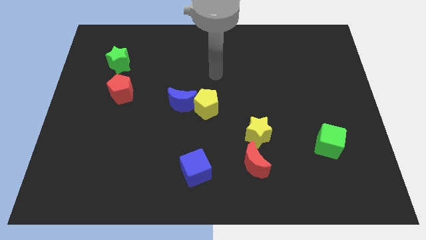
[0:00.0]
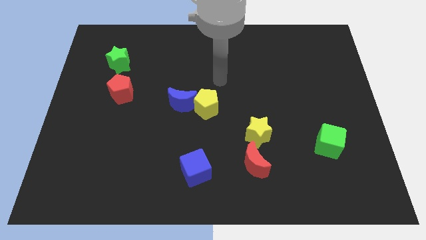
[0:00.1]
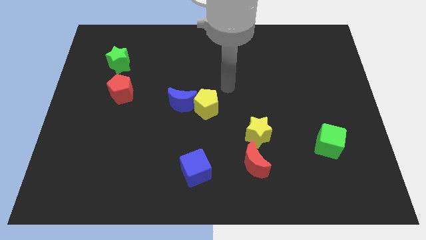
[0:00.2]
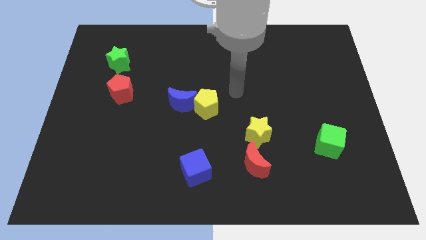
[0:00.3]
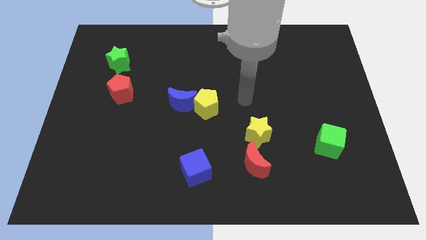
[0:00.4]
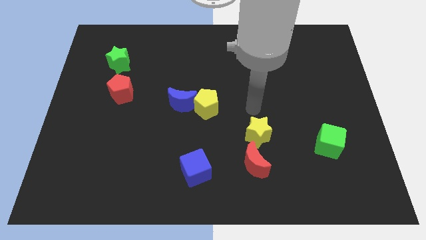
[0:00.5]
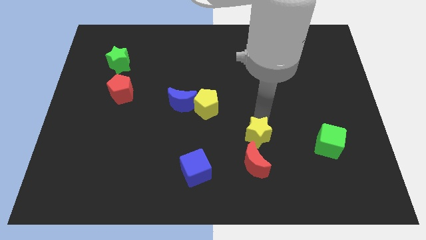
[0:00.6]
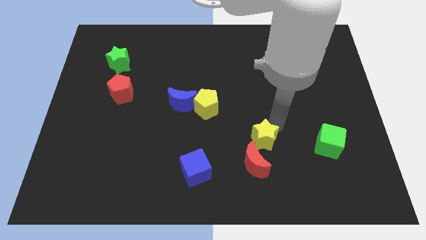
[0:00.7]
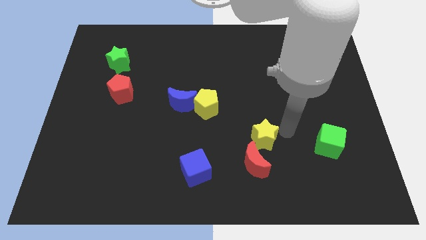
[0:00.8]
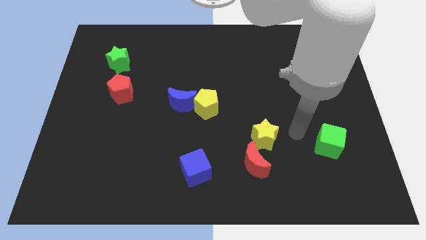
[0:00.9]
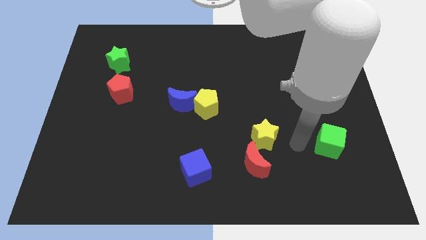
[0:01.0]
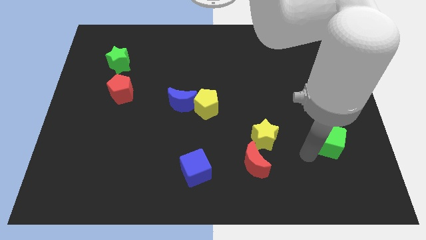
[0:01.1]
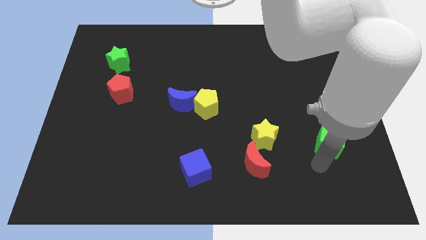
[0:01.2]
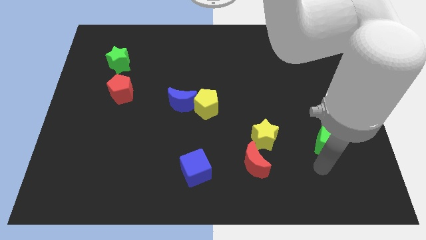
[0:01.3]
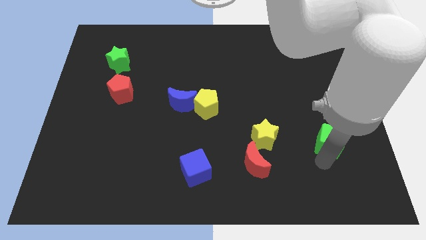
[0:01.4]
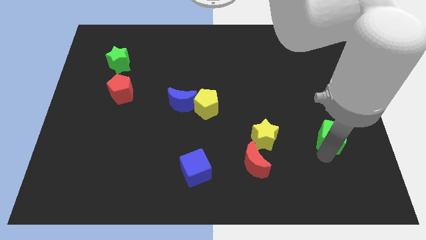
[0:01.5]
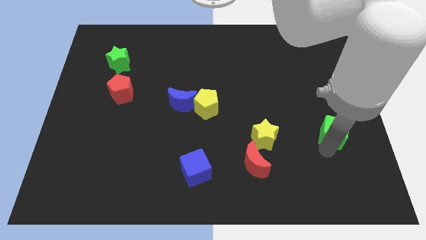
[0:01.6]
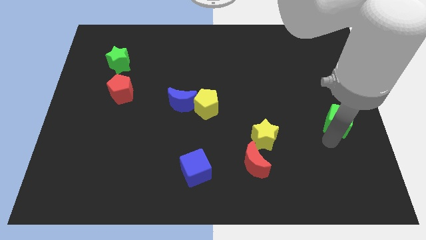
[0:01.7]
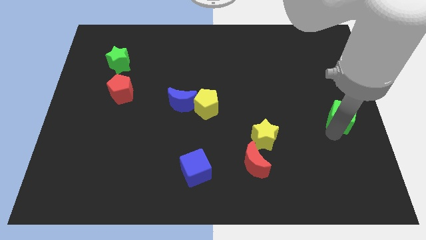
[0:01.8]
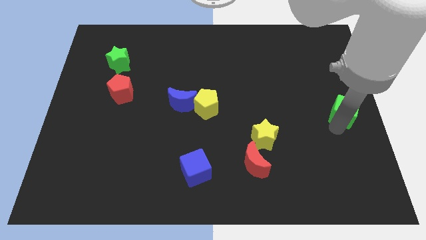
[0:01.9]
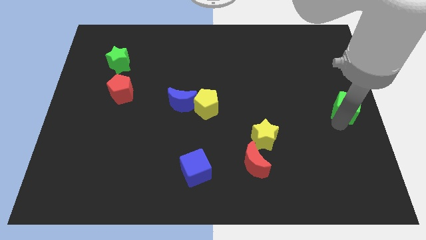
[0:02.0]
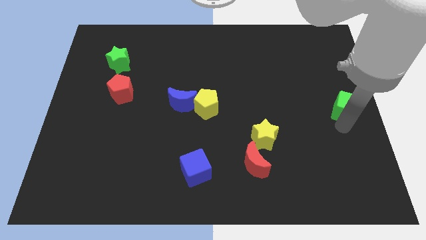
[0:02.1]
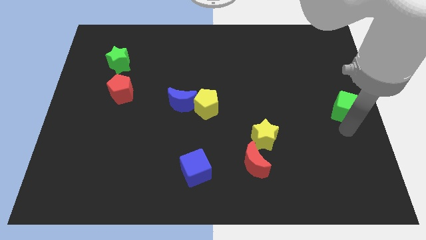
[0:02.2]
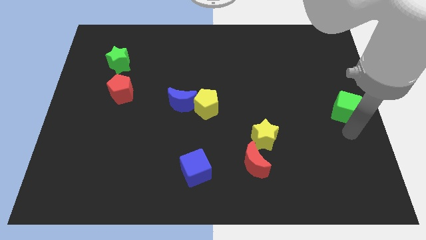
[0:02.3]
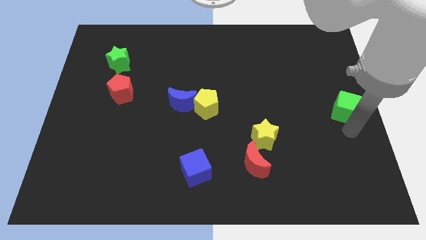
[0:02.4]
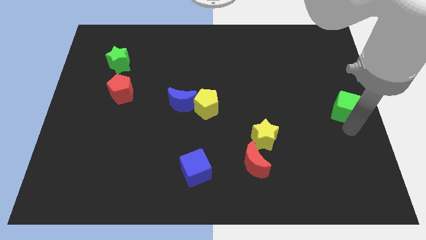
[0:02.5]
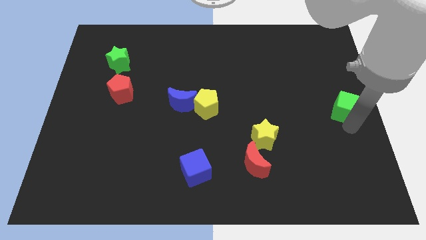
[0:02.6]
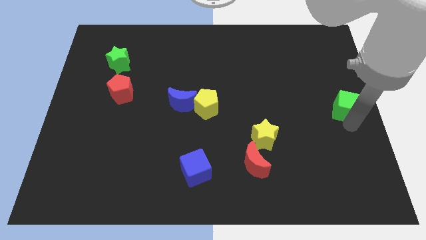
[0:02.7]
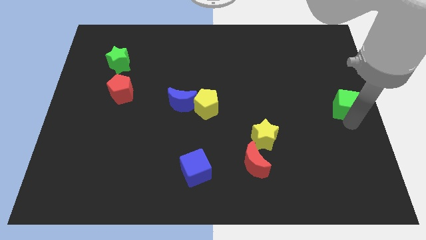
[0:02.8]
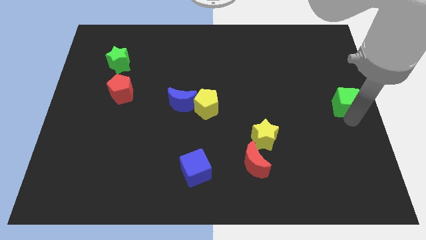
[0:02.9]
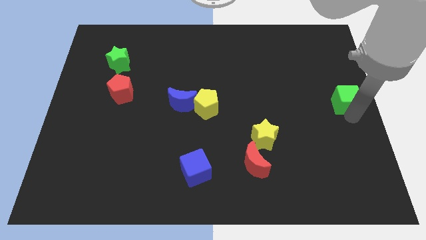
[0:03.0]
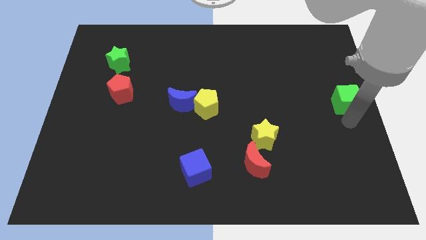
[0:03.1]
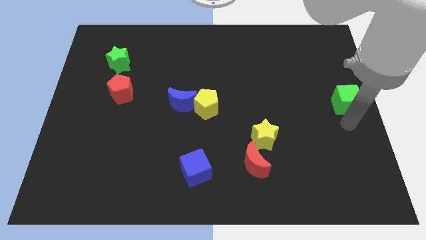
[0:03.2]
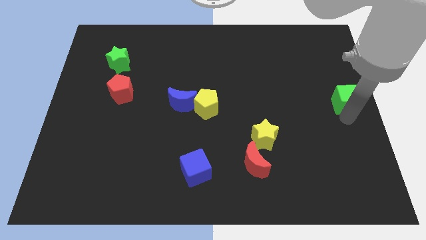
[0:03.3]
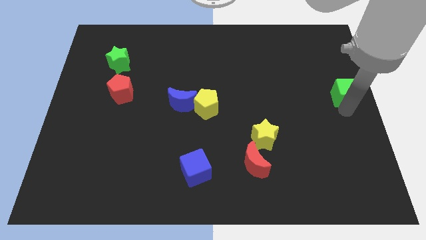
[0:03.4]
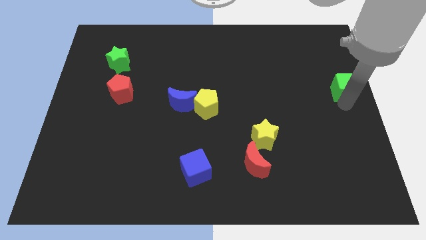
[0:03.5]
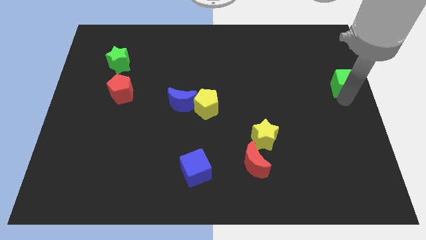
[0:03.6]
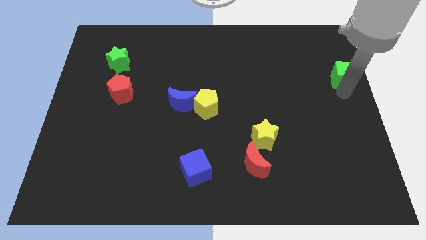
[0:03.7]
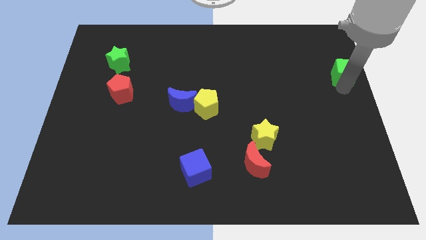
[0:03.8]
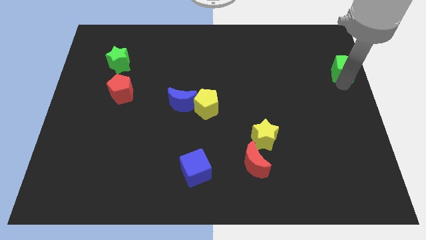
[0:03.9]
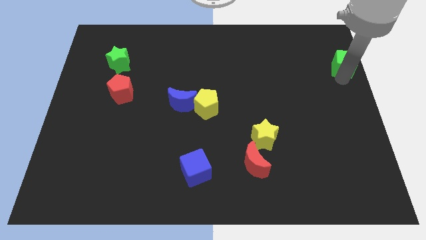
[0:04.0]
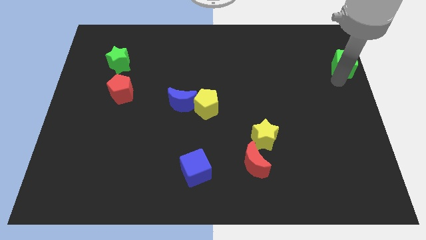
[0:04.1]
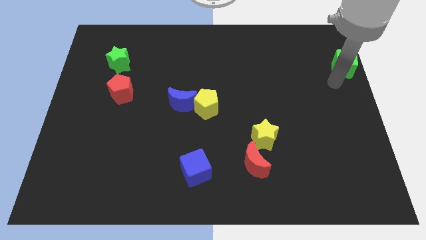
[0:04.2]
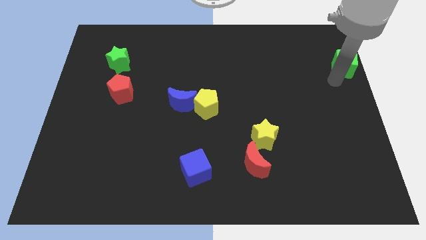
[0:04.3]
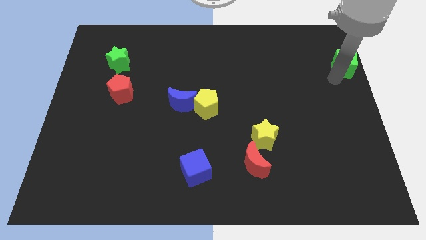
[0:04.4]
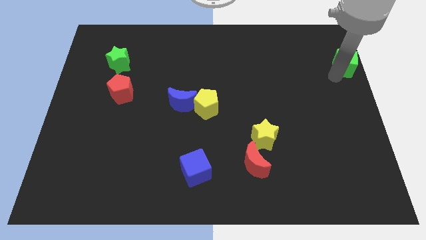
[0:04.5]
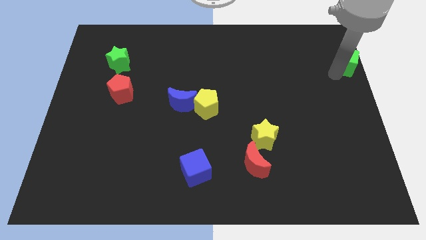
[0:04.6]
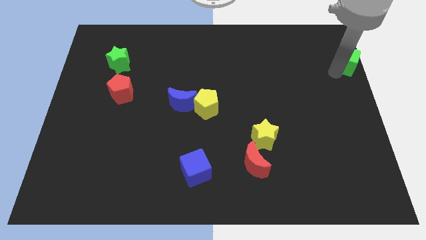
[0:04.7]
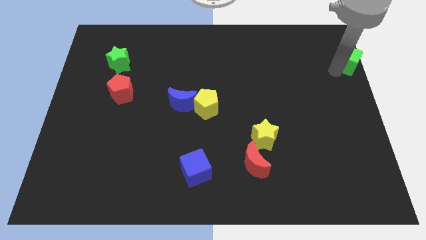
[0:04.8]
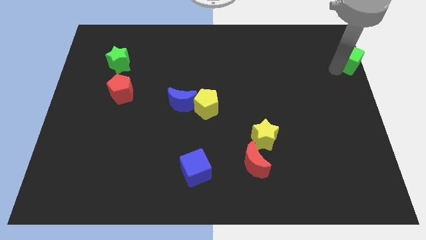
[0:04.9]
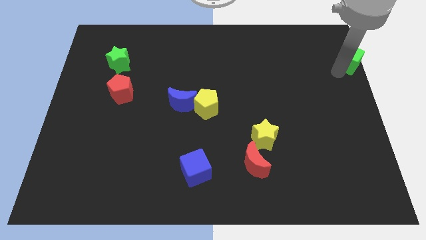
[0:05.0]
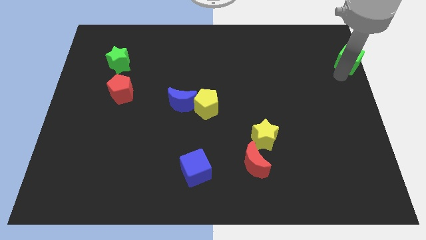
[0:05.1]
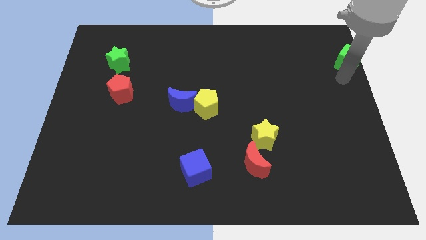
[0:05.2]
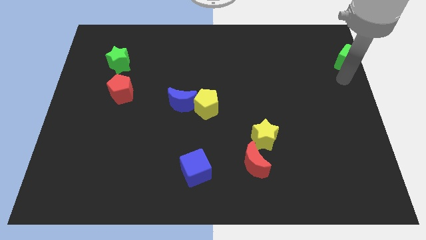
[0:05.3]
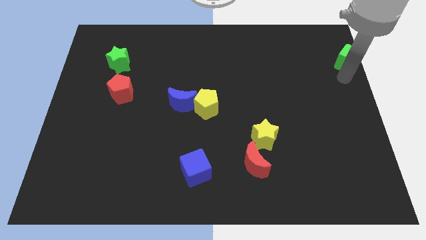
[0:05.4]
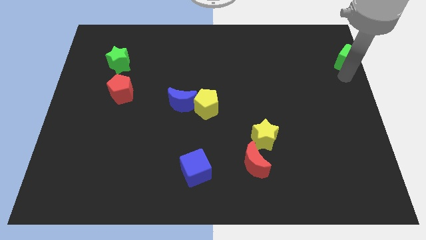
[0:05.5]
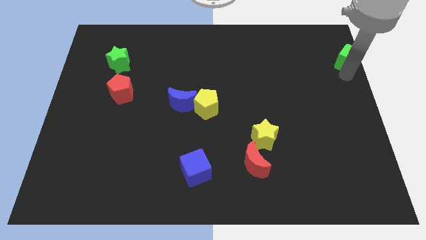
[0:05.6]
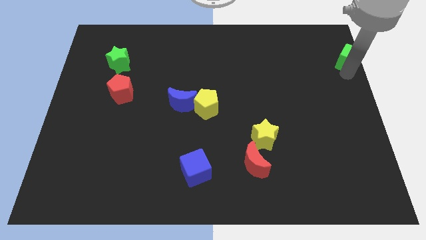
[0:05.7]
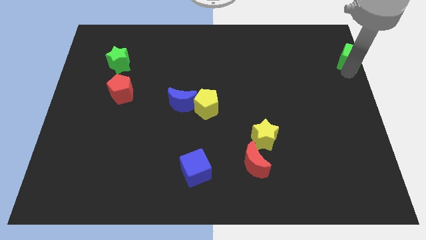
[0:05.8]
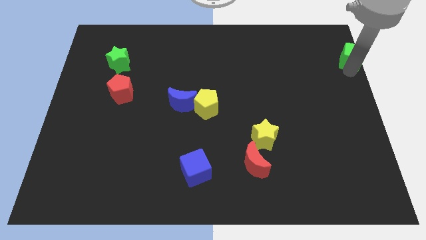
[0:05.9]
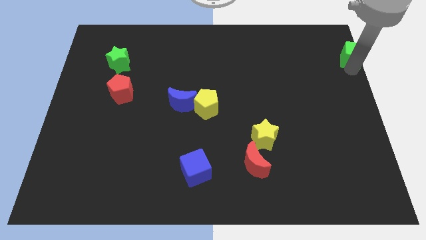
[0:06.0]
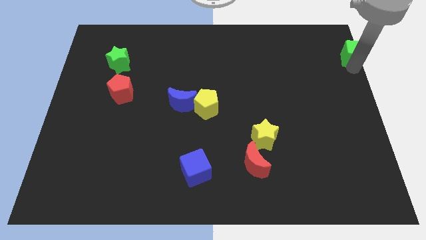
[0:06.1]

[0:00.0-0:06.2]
slide the green cube to the upper right corner

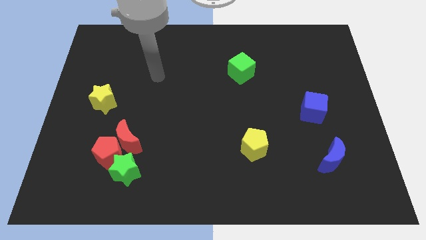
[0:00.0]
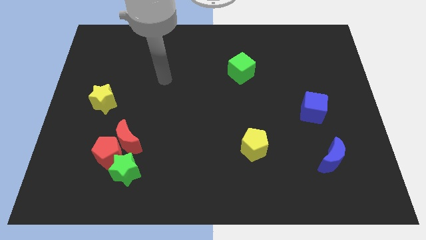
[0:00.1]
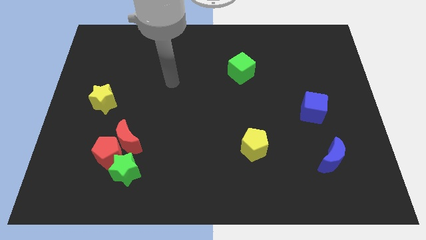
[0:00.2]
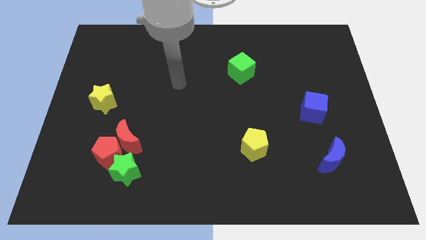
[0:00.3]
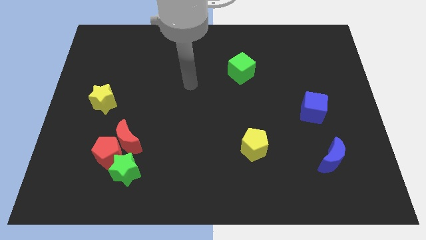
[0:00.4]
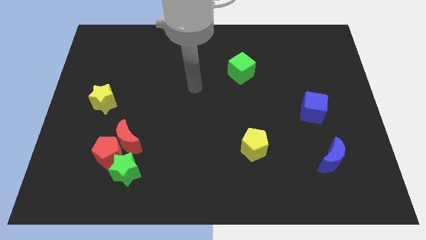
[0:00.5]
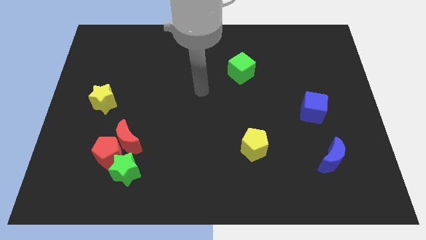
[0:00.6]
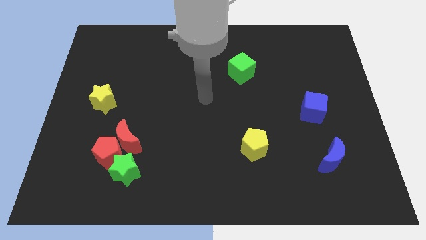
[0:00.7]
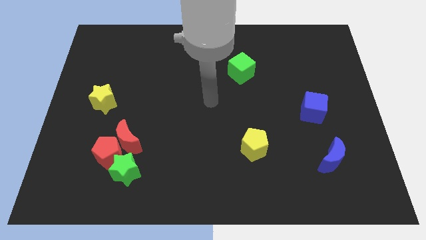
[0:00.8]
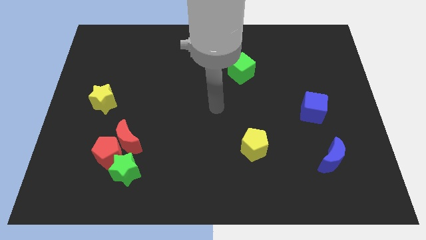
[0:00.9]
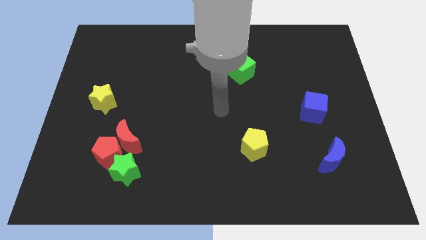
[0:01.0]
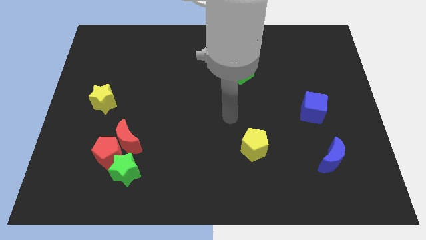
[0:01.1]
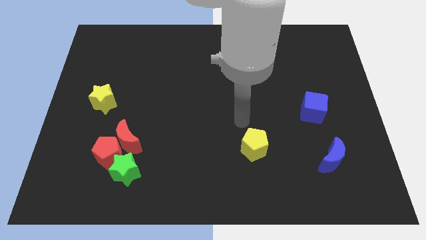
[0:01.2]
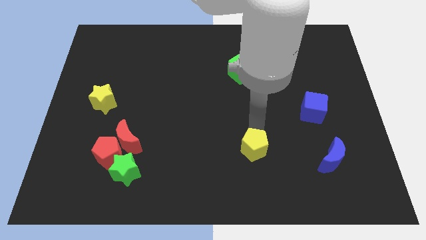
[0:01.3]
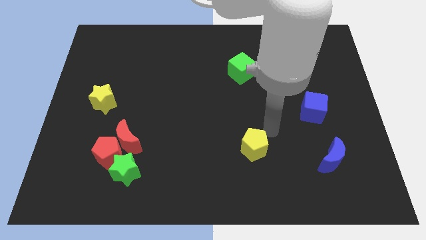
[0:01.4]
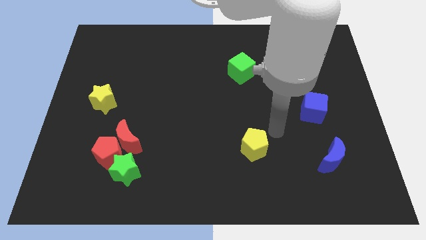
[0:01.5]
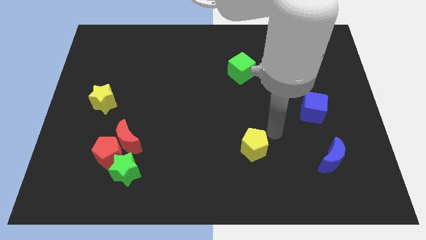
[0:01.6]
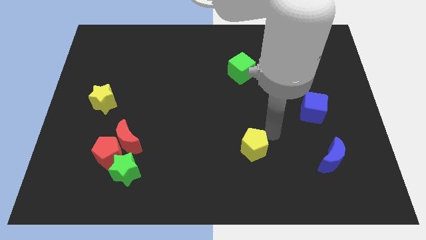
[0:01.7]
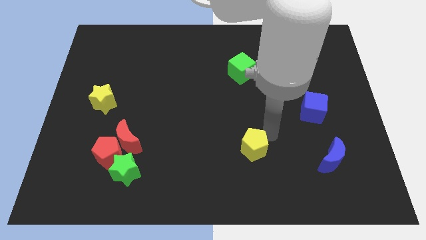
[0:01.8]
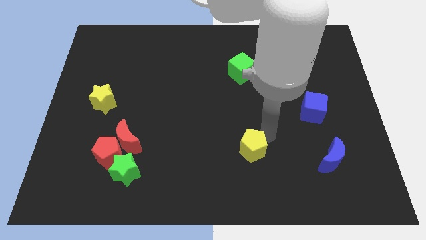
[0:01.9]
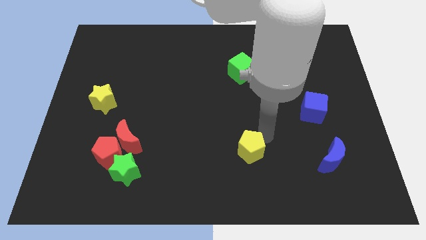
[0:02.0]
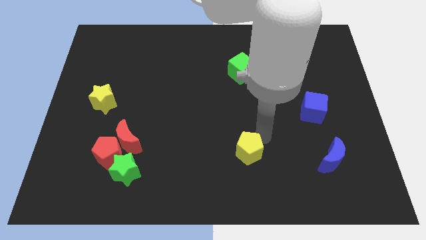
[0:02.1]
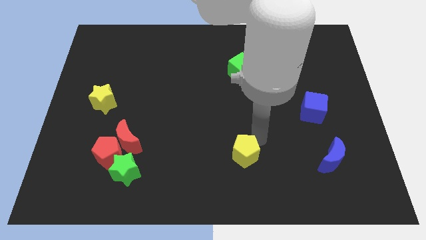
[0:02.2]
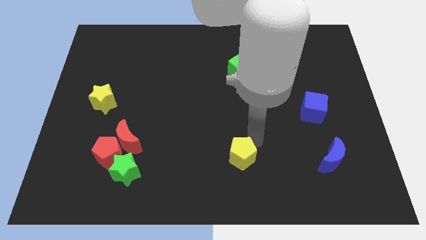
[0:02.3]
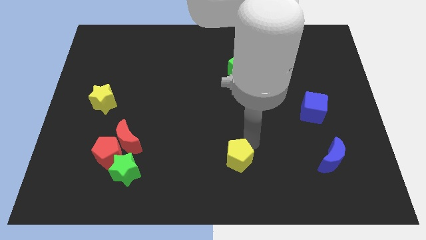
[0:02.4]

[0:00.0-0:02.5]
move the yellow pentagon to the bottom
